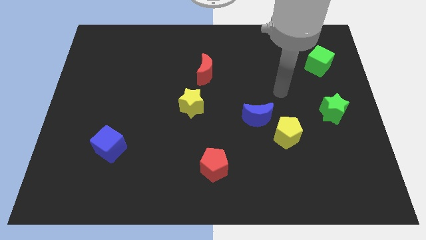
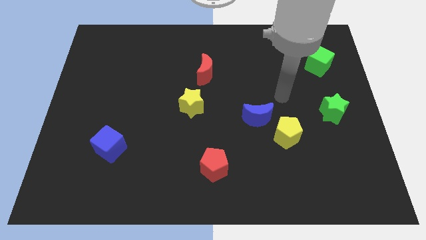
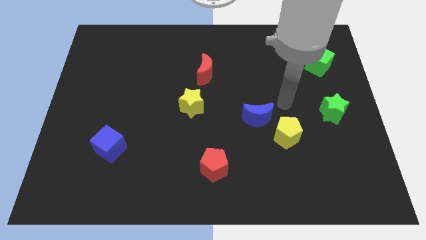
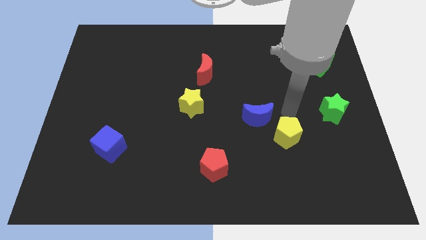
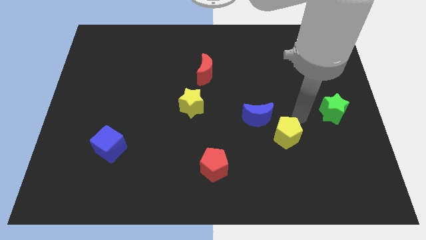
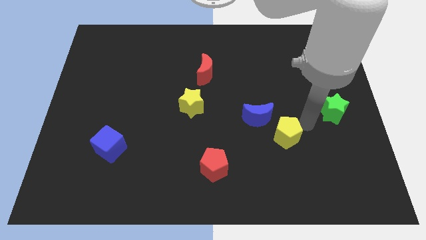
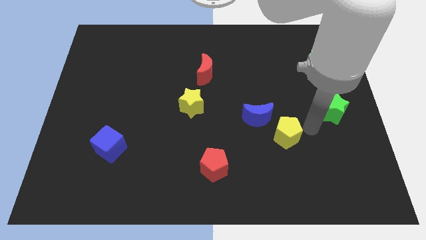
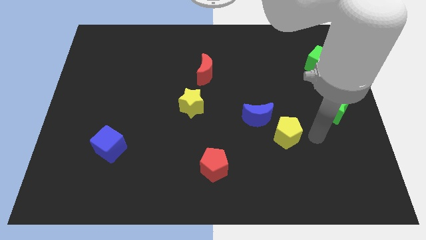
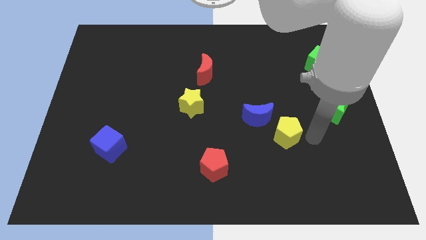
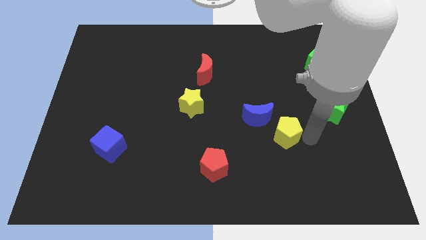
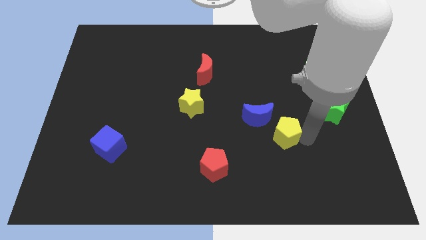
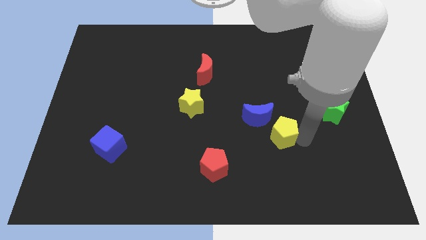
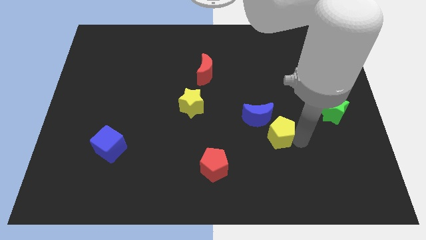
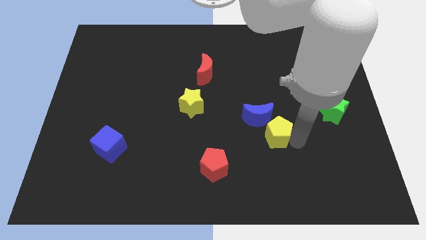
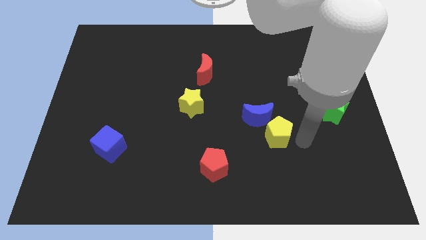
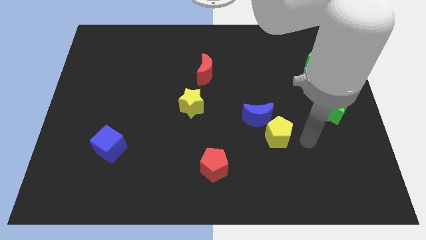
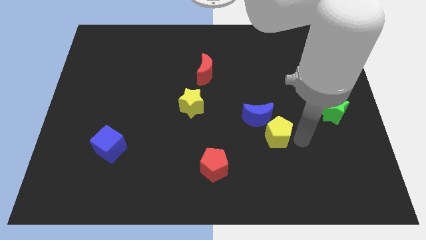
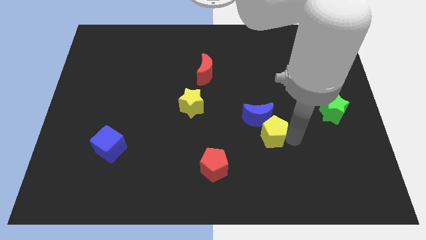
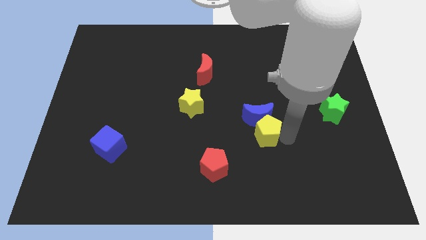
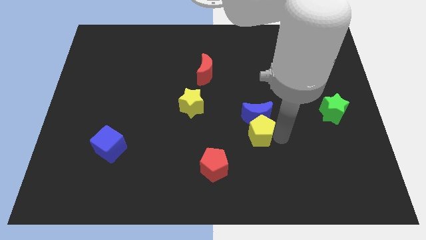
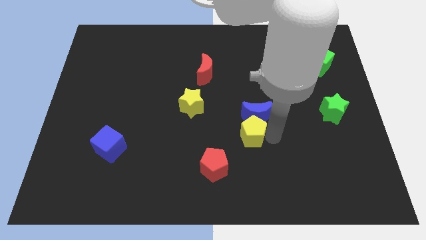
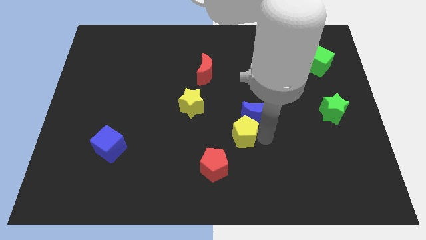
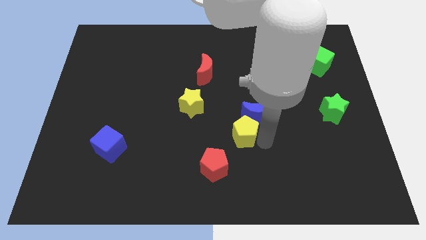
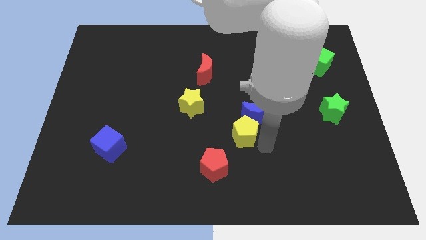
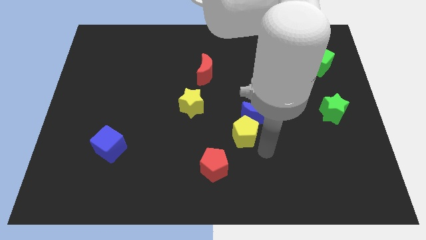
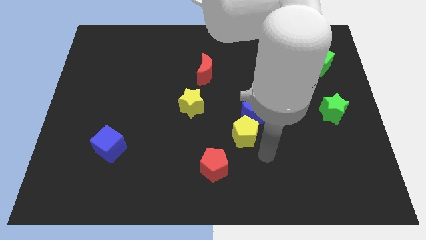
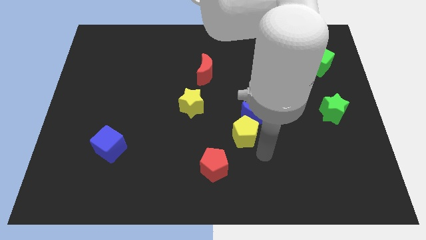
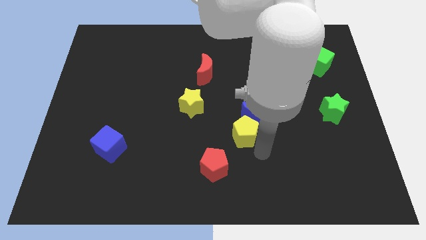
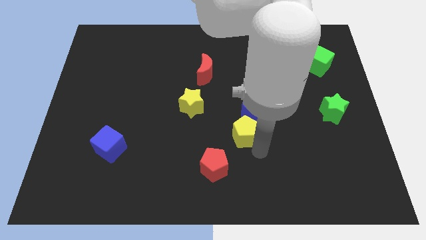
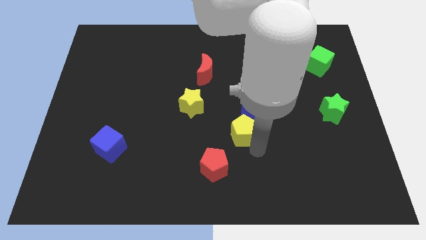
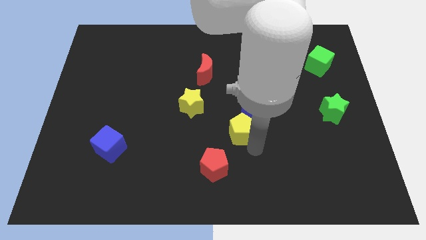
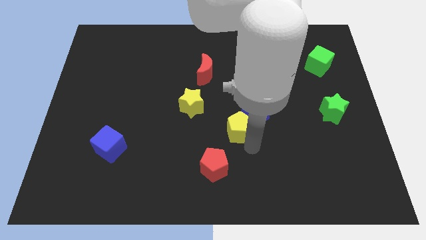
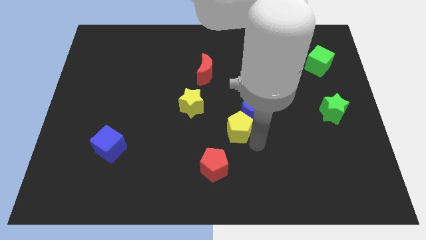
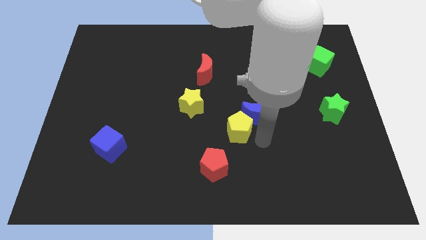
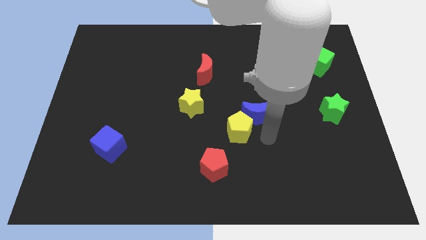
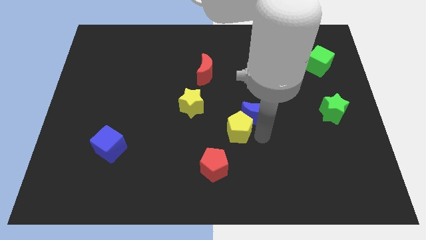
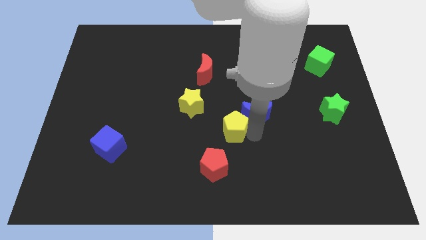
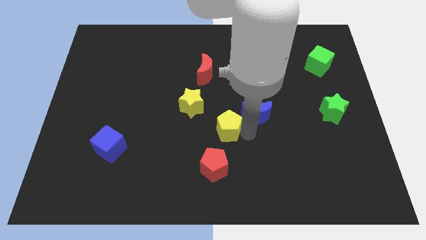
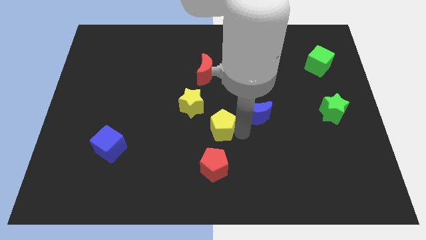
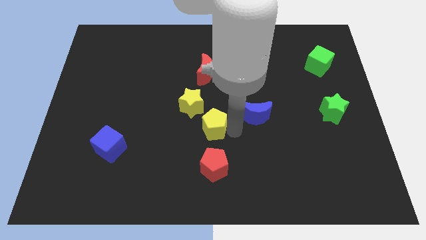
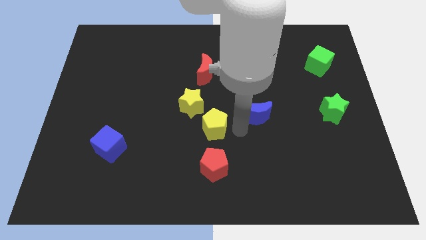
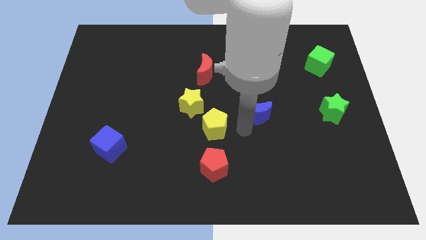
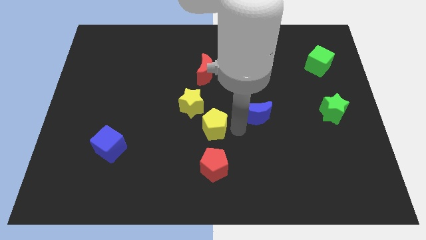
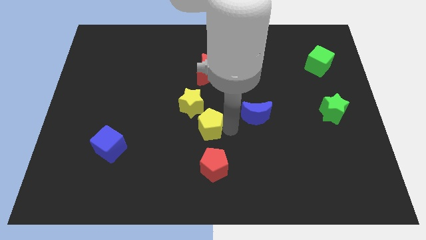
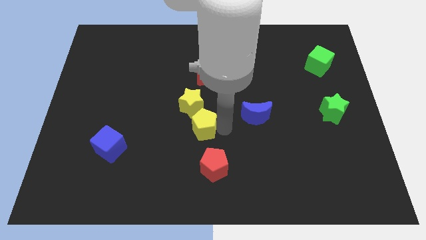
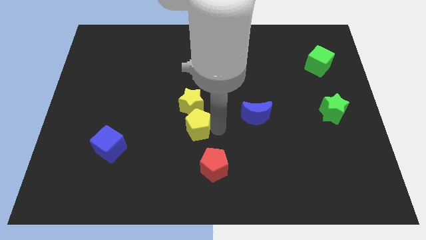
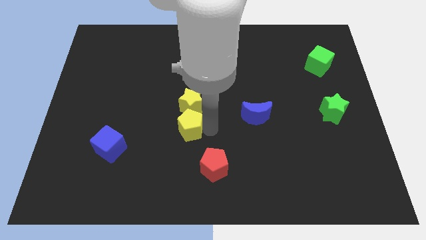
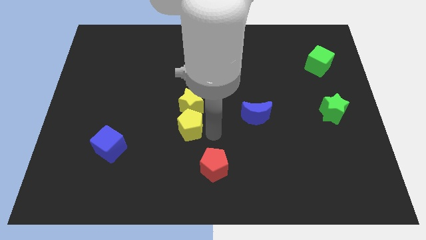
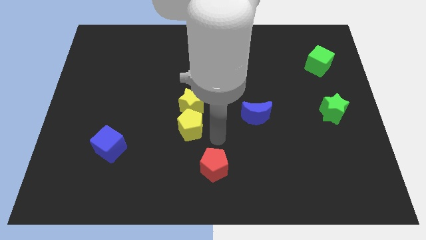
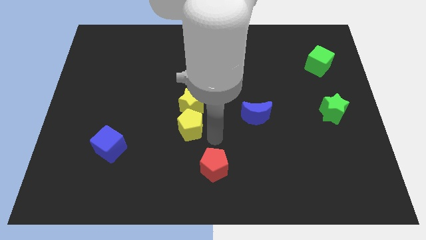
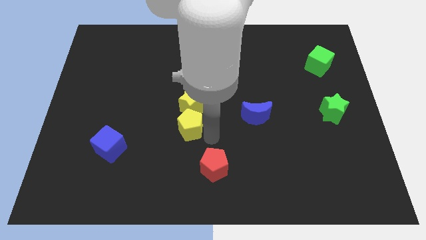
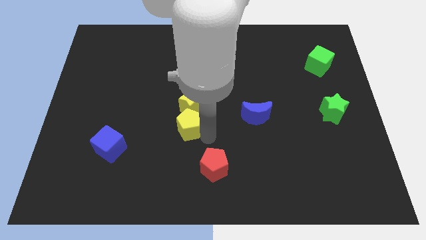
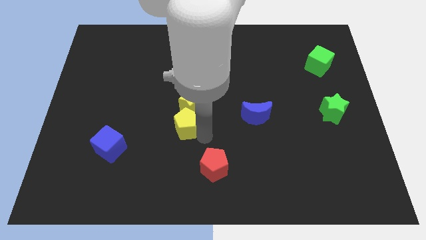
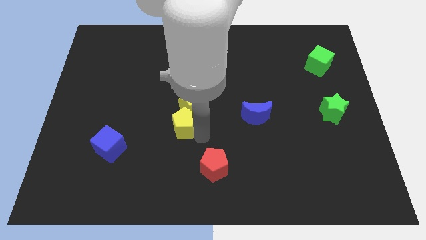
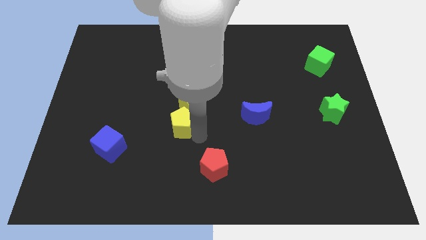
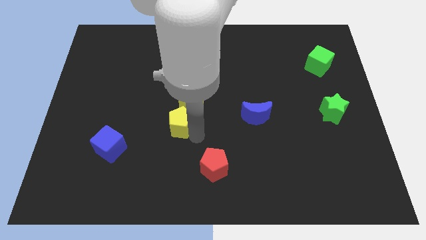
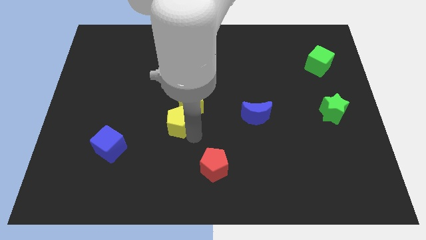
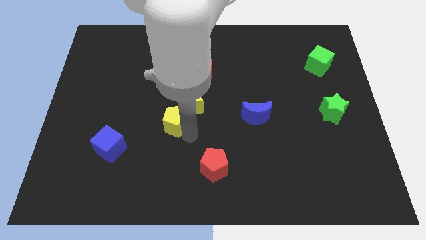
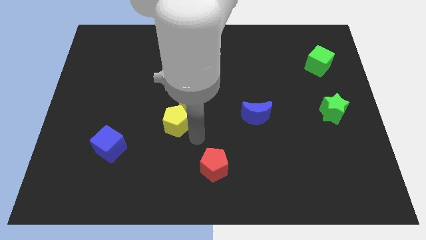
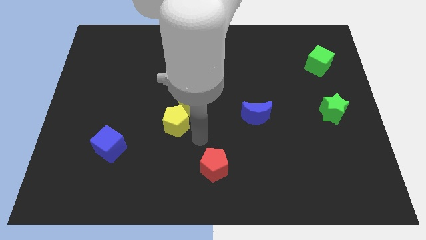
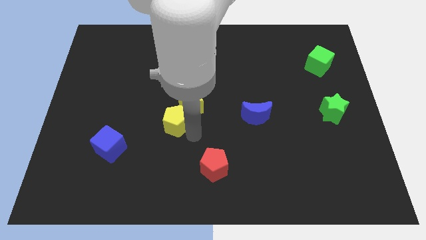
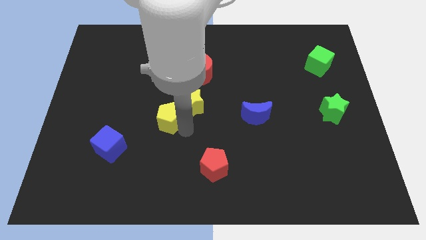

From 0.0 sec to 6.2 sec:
move the yellow pentagon just left of the yellow star

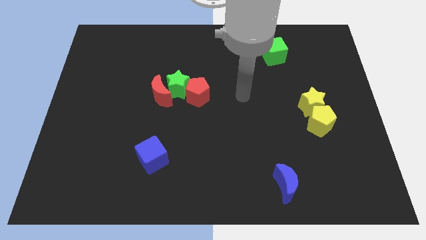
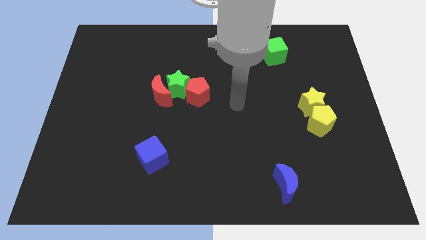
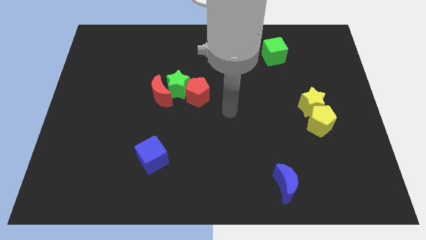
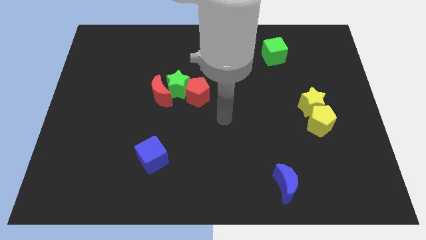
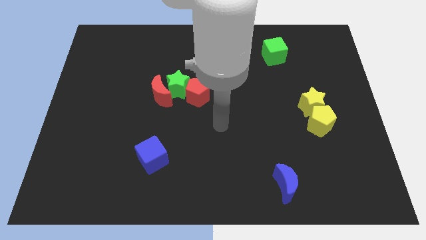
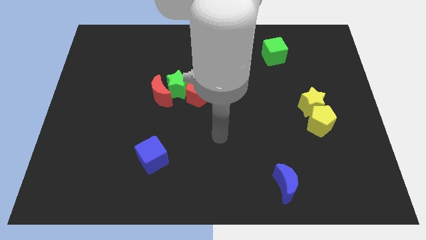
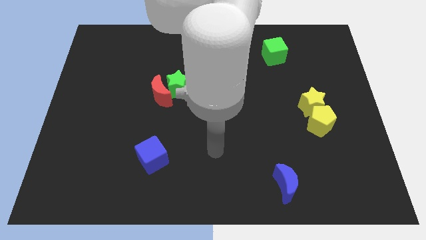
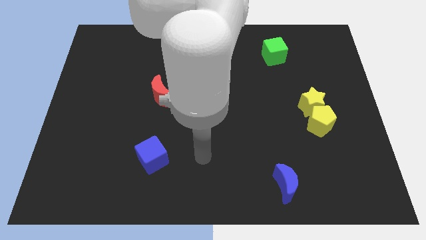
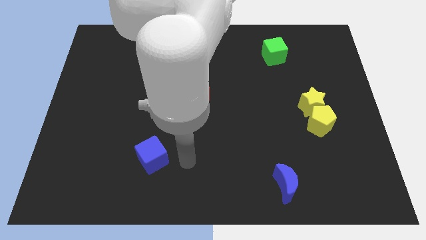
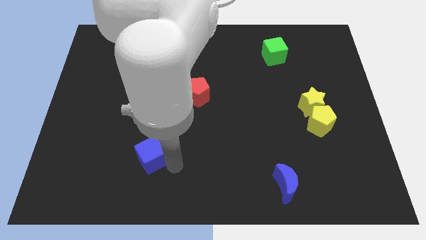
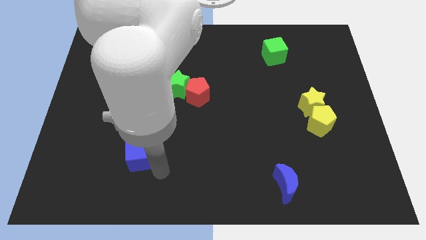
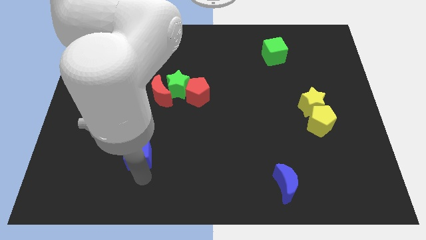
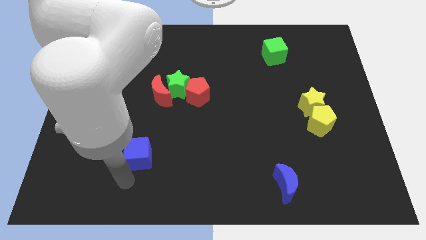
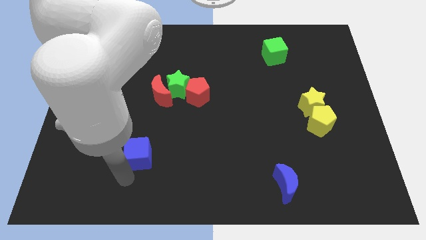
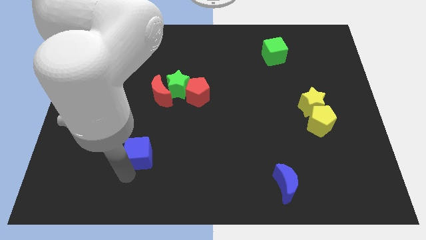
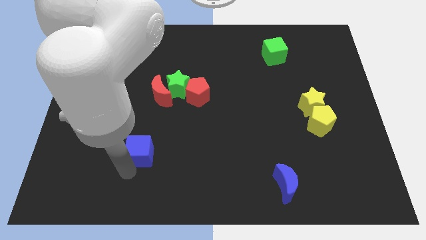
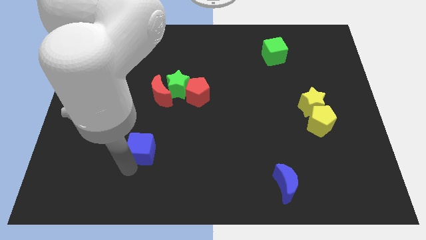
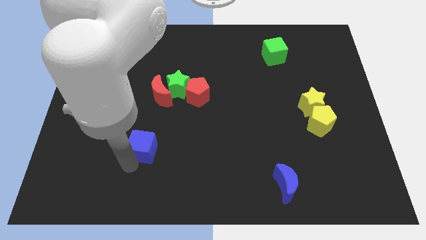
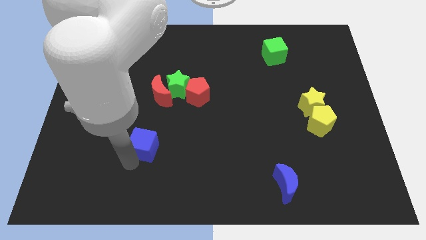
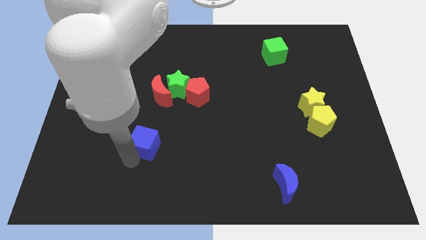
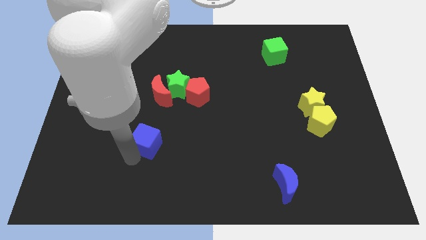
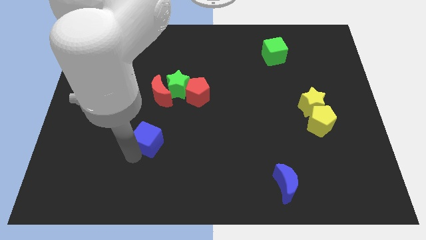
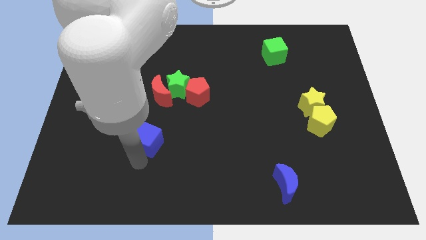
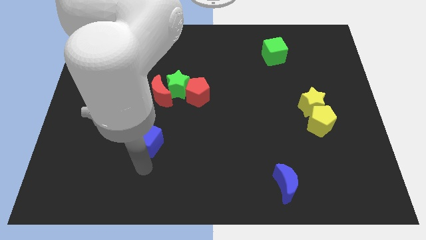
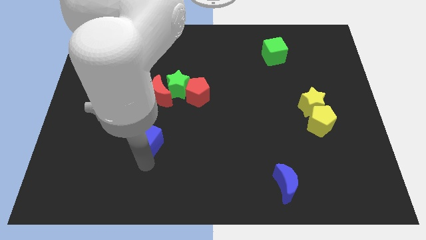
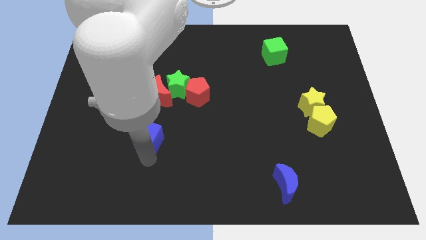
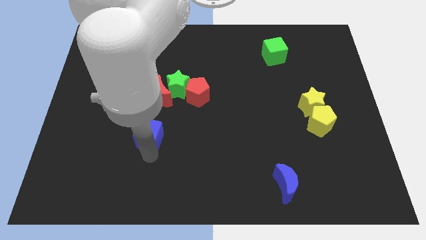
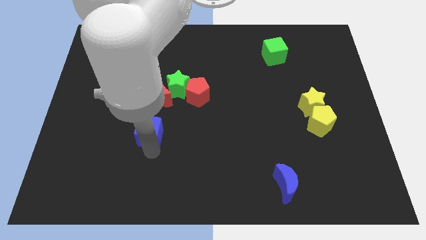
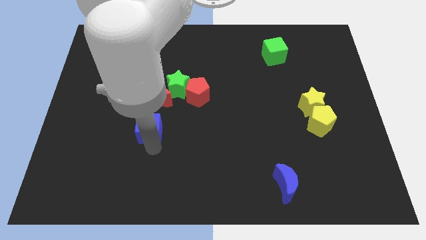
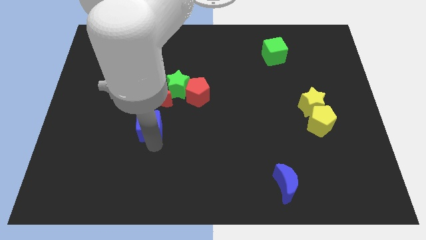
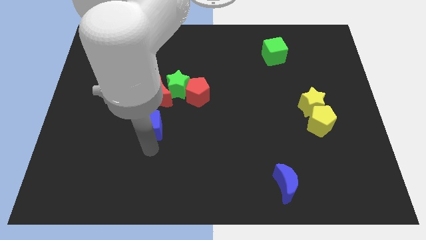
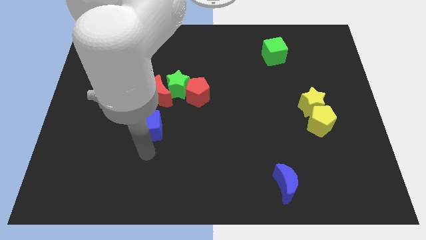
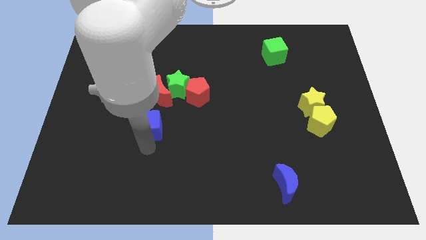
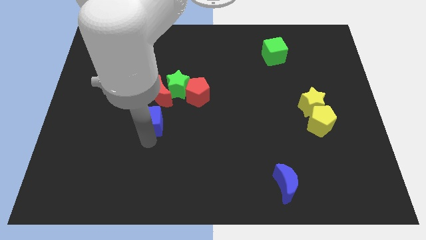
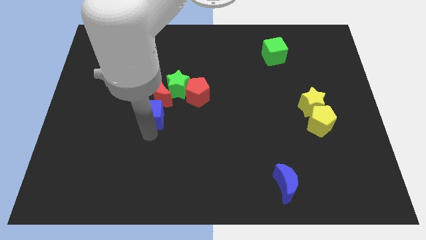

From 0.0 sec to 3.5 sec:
put the blue cube to the bottom left side of the green star
